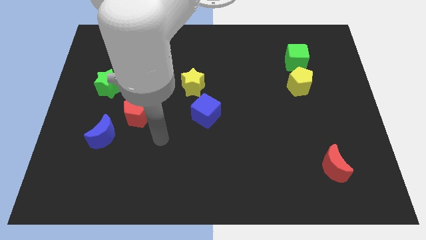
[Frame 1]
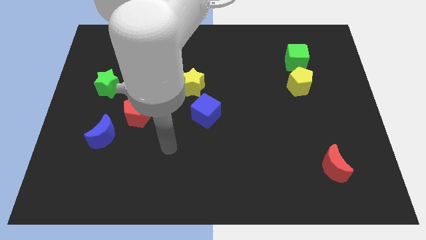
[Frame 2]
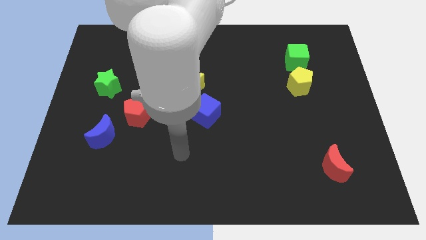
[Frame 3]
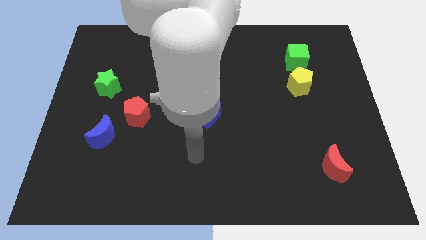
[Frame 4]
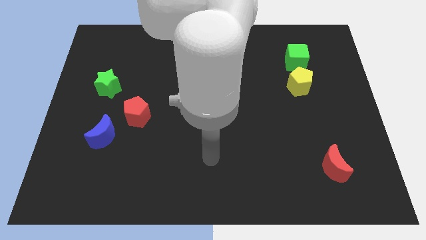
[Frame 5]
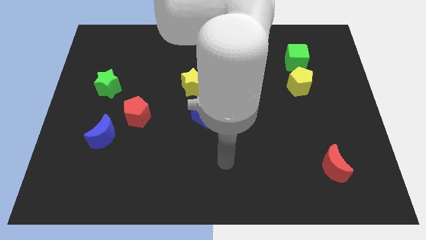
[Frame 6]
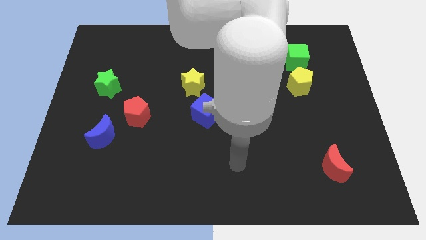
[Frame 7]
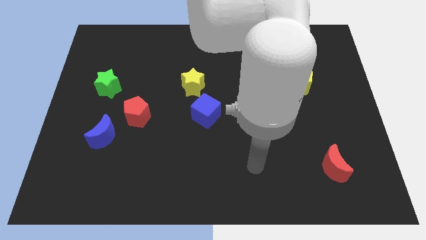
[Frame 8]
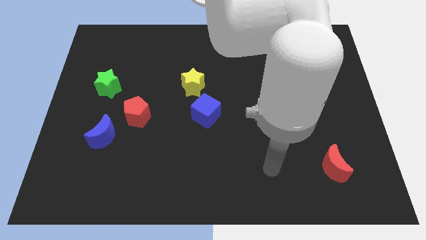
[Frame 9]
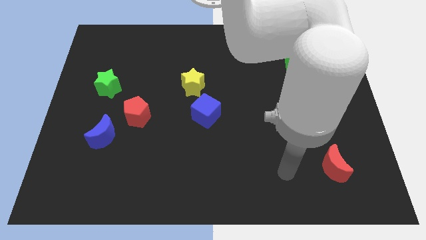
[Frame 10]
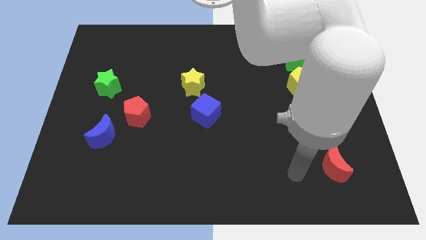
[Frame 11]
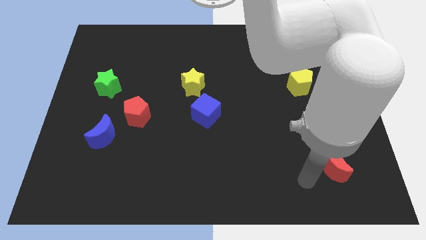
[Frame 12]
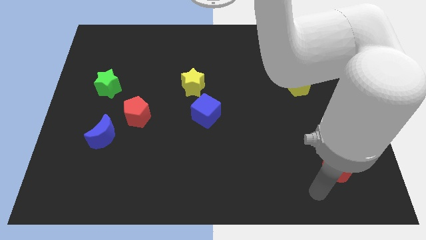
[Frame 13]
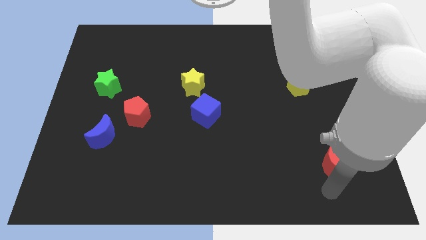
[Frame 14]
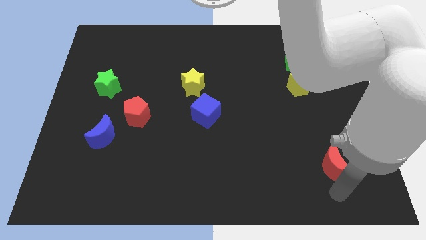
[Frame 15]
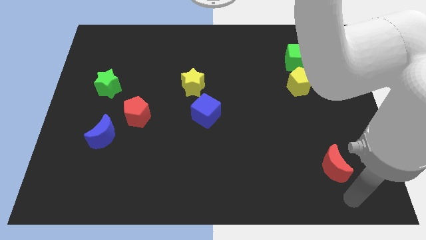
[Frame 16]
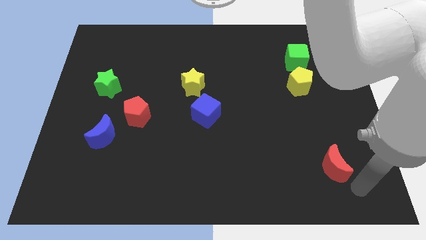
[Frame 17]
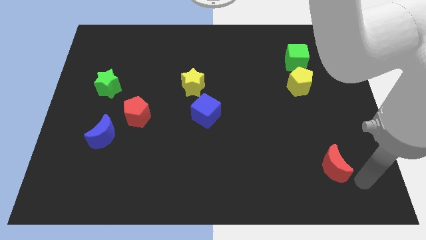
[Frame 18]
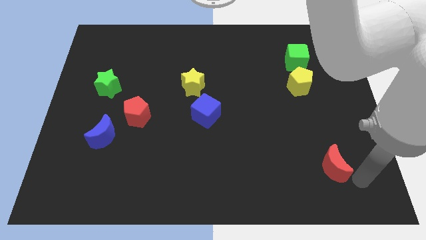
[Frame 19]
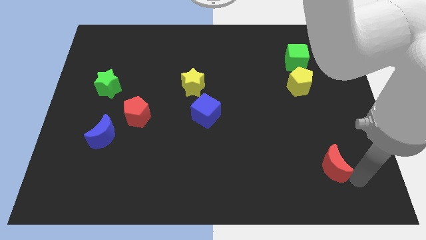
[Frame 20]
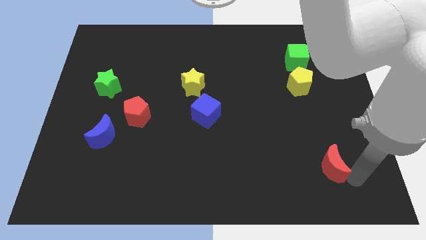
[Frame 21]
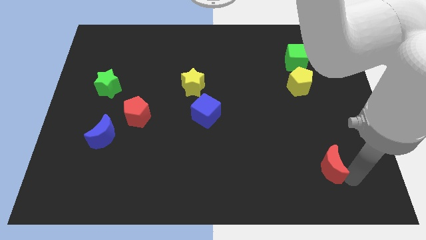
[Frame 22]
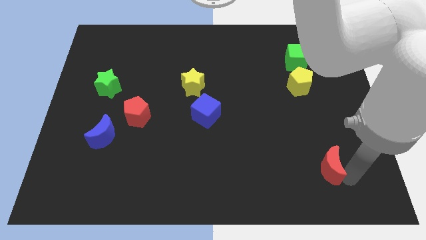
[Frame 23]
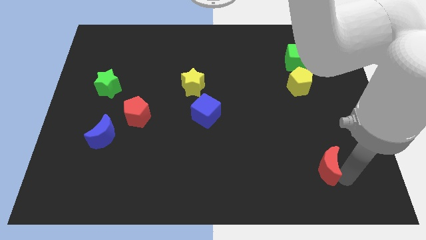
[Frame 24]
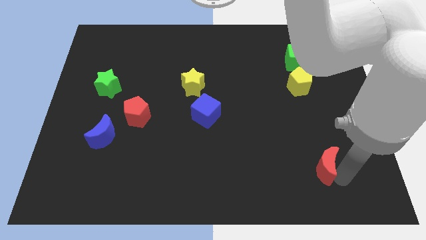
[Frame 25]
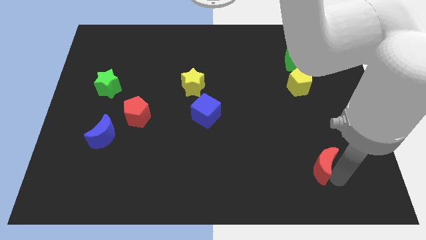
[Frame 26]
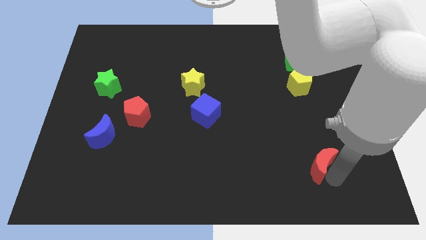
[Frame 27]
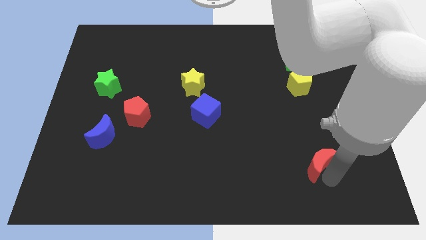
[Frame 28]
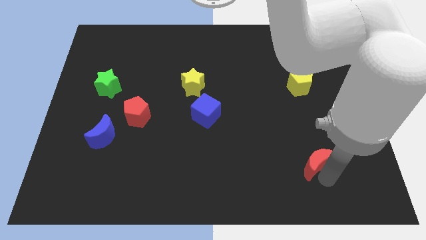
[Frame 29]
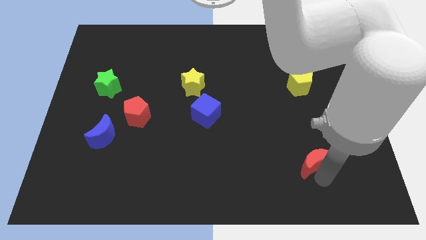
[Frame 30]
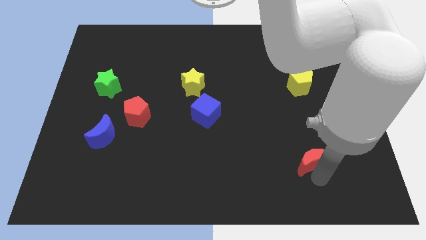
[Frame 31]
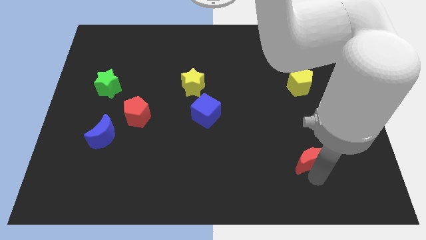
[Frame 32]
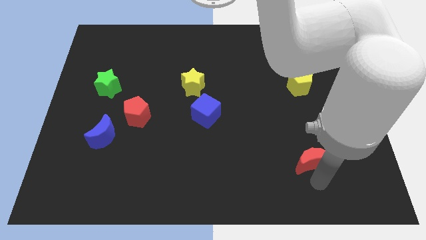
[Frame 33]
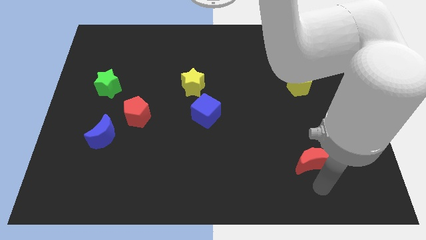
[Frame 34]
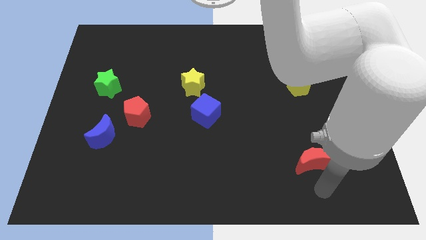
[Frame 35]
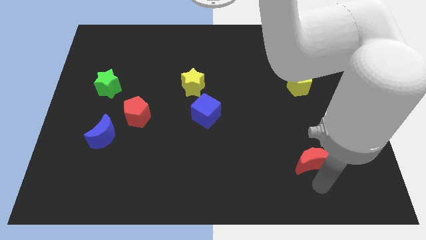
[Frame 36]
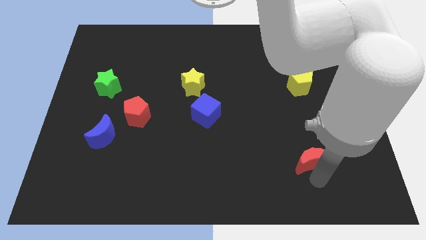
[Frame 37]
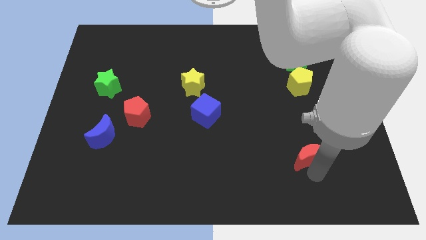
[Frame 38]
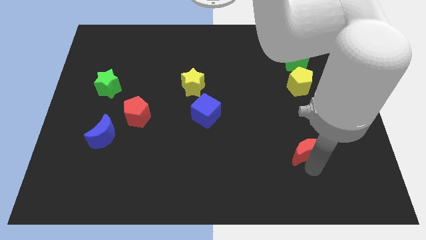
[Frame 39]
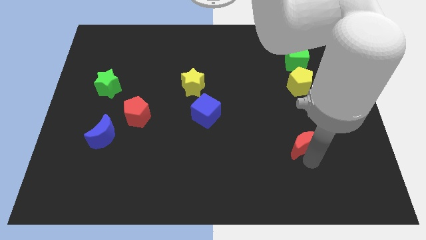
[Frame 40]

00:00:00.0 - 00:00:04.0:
move the red moon up and then left a little

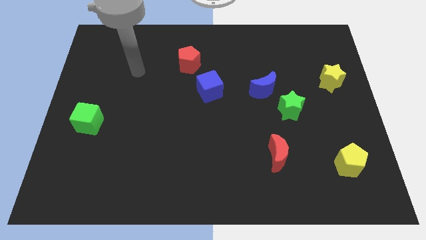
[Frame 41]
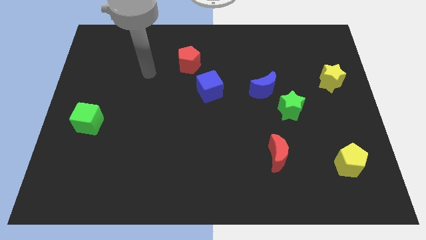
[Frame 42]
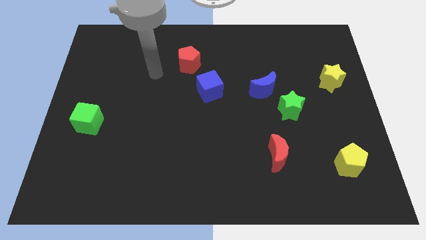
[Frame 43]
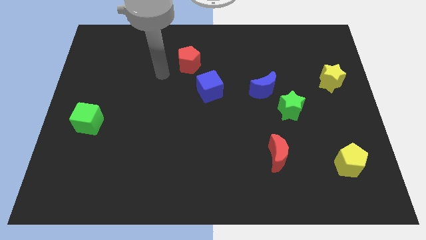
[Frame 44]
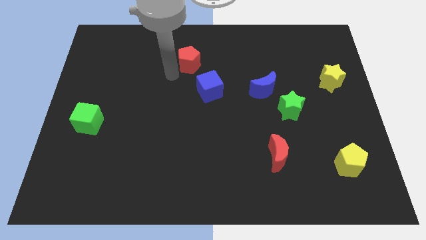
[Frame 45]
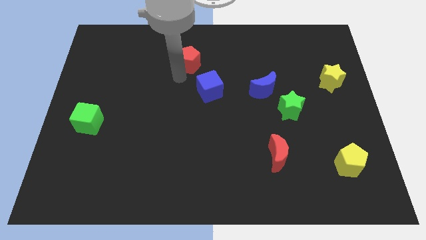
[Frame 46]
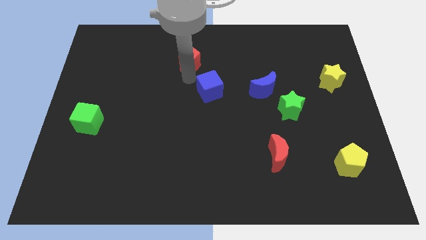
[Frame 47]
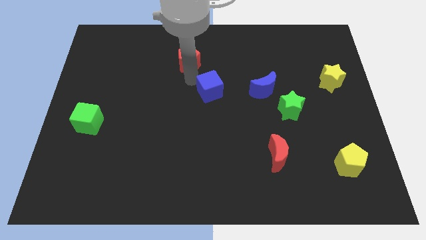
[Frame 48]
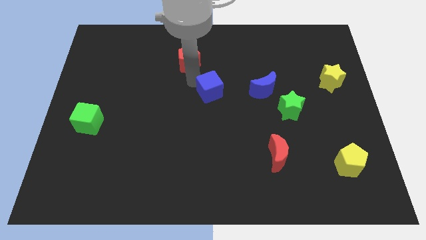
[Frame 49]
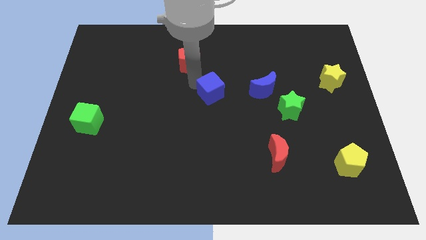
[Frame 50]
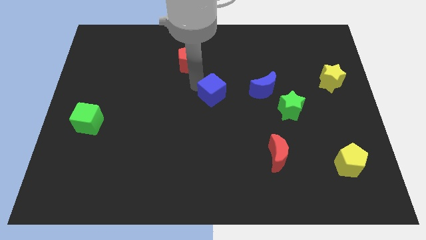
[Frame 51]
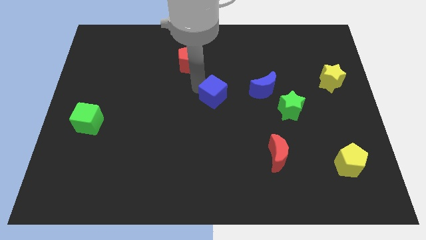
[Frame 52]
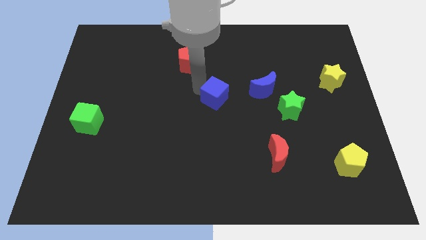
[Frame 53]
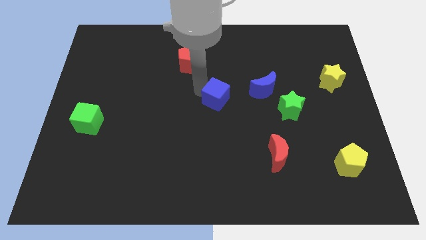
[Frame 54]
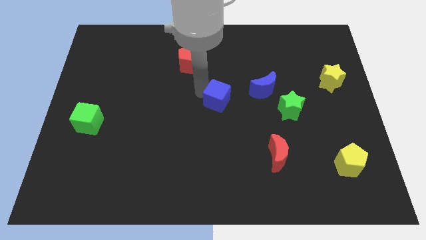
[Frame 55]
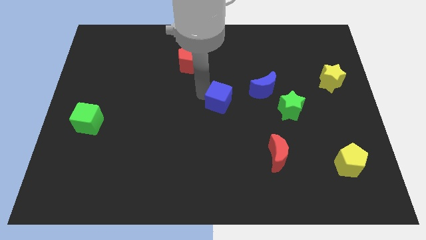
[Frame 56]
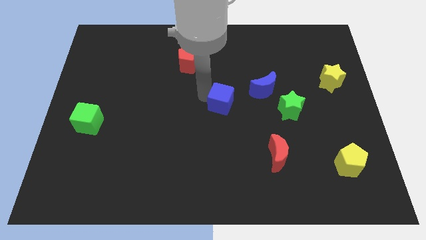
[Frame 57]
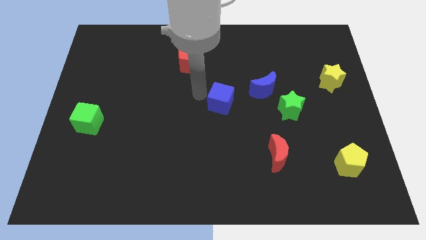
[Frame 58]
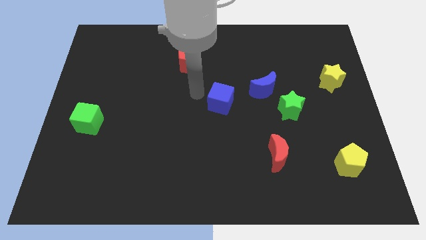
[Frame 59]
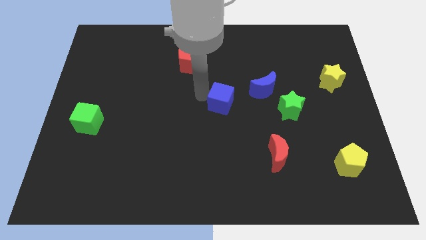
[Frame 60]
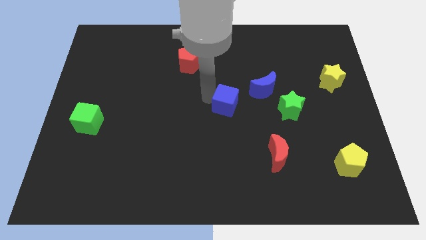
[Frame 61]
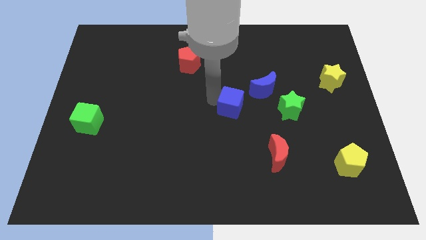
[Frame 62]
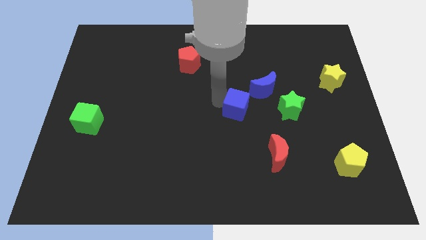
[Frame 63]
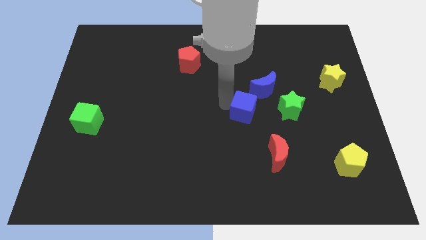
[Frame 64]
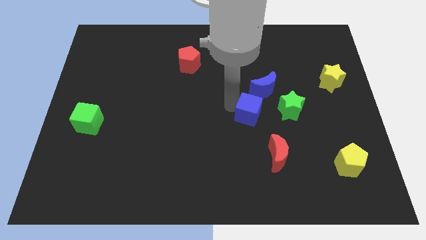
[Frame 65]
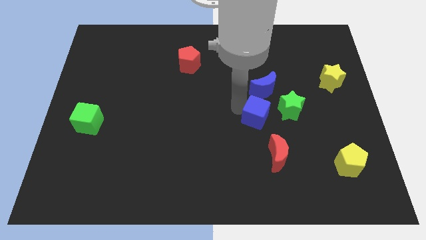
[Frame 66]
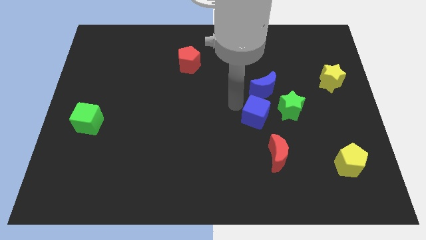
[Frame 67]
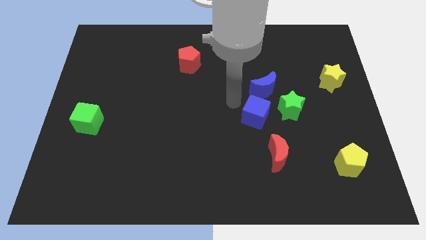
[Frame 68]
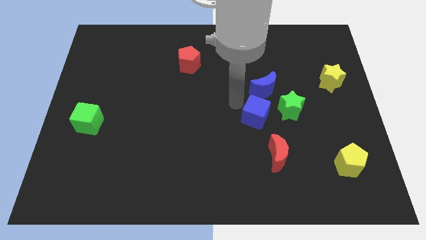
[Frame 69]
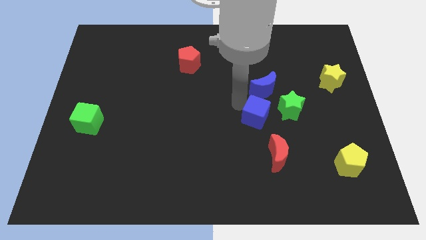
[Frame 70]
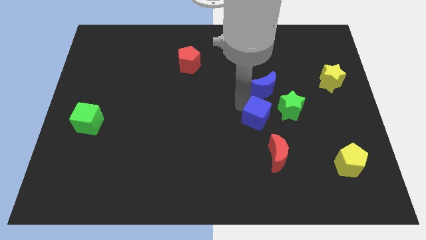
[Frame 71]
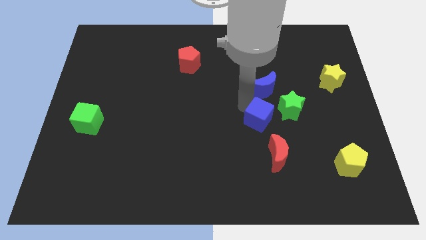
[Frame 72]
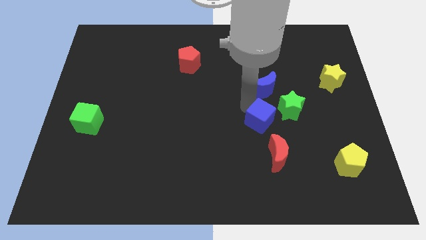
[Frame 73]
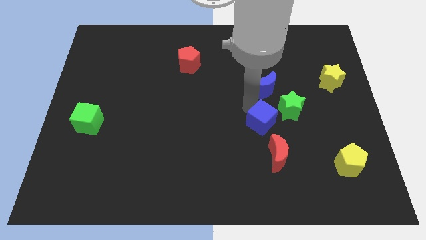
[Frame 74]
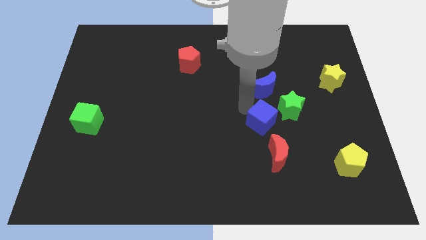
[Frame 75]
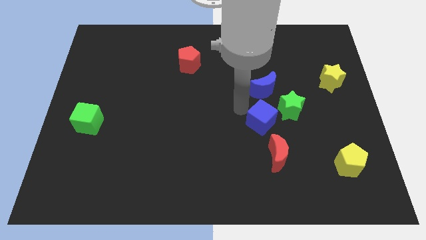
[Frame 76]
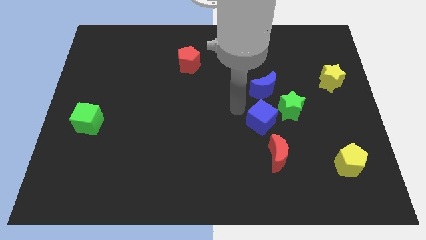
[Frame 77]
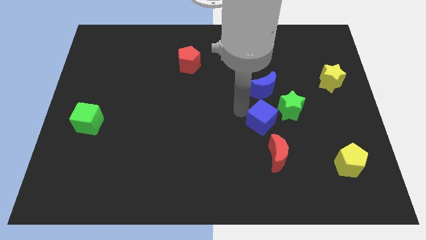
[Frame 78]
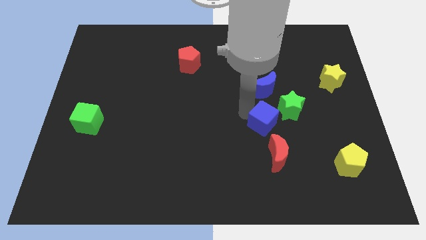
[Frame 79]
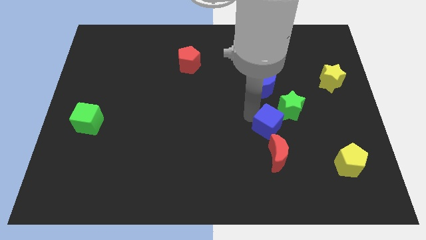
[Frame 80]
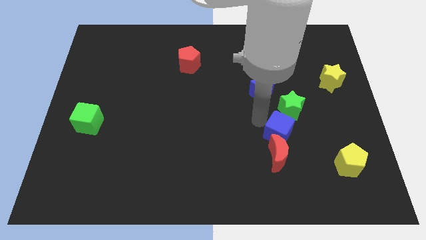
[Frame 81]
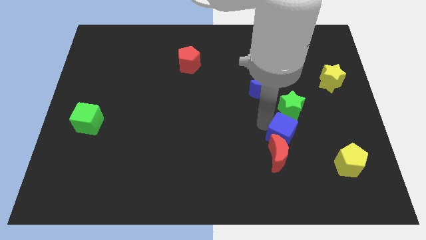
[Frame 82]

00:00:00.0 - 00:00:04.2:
move the blue cube downwards and right diagonally
